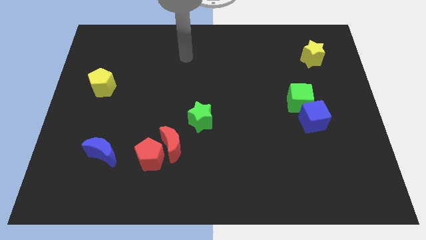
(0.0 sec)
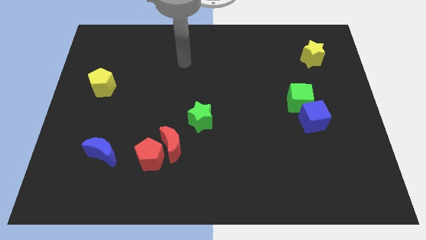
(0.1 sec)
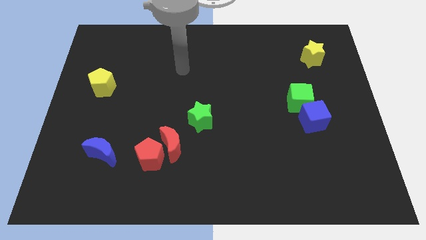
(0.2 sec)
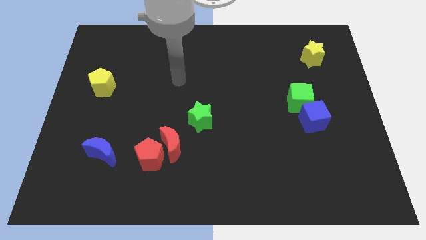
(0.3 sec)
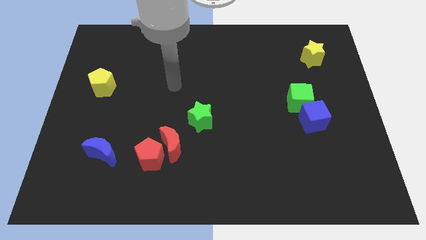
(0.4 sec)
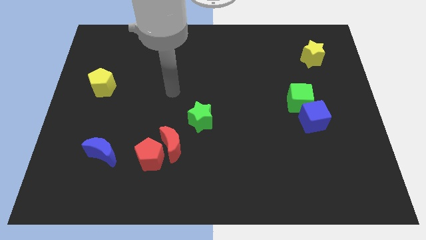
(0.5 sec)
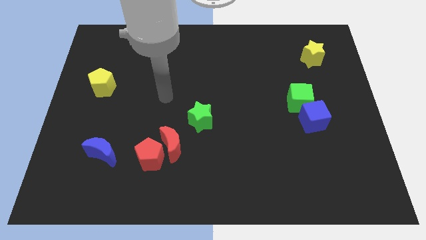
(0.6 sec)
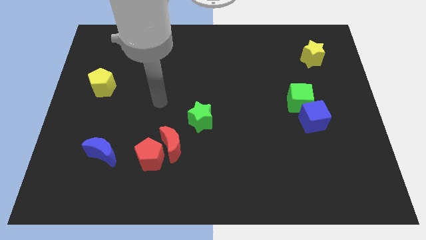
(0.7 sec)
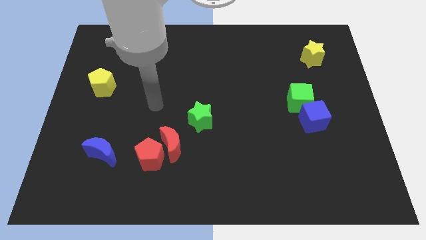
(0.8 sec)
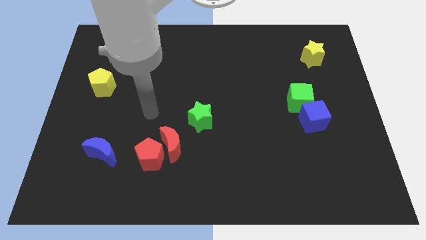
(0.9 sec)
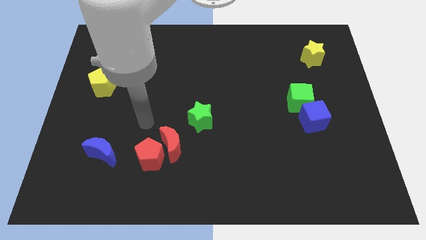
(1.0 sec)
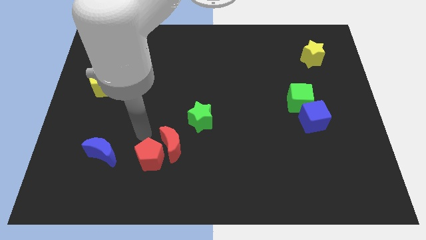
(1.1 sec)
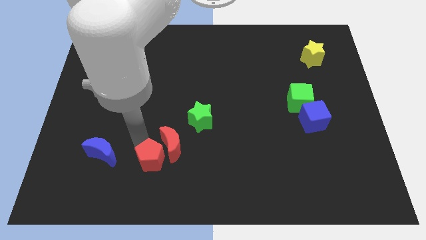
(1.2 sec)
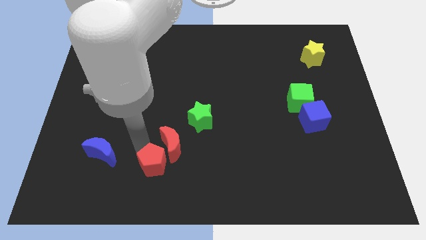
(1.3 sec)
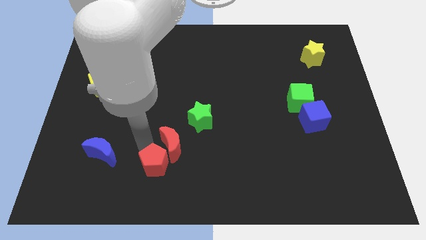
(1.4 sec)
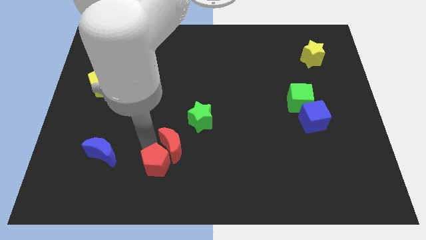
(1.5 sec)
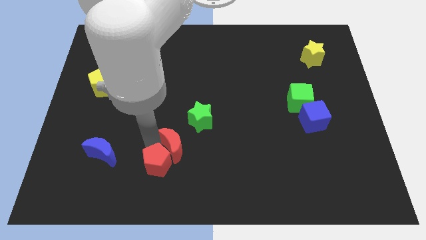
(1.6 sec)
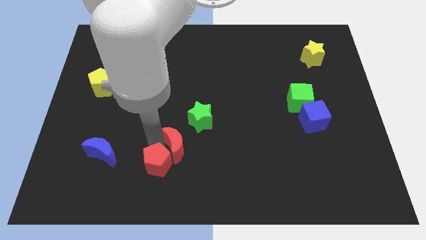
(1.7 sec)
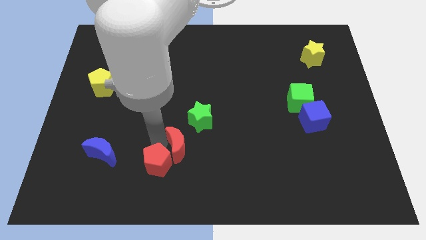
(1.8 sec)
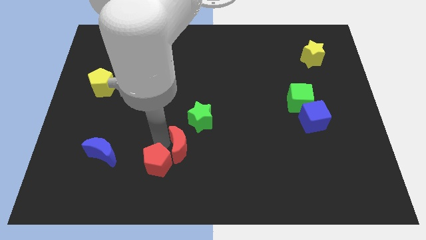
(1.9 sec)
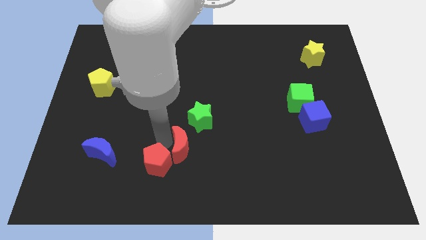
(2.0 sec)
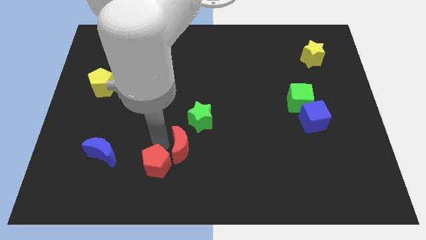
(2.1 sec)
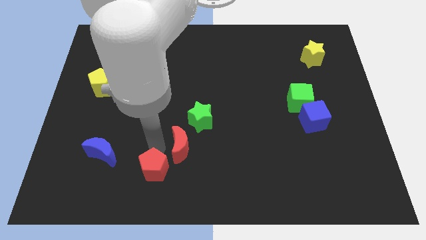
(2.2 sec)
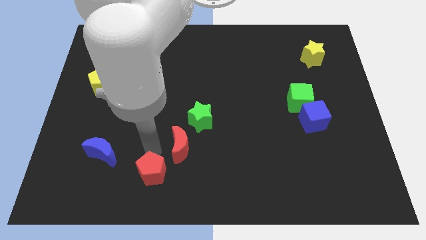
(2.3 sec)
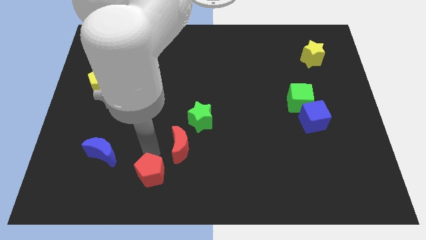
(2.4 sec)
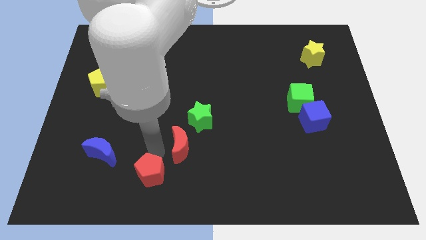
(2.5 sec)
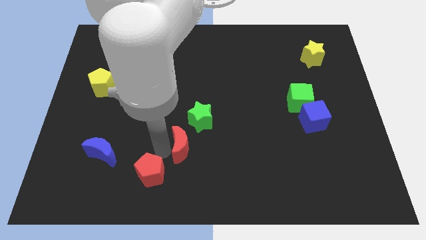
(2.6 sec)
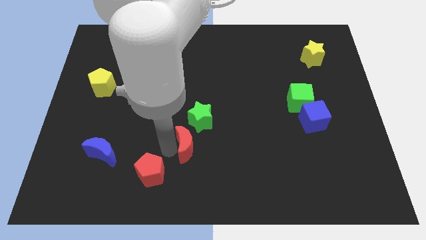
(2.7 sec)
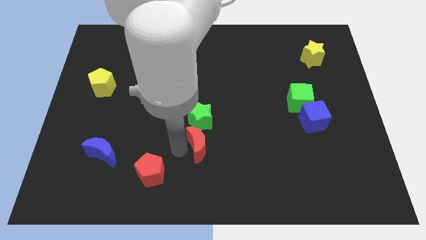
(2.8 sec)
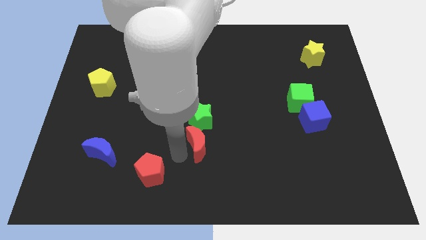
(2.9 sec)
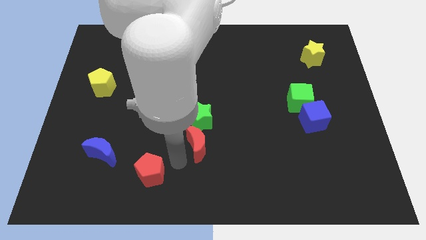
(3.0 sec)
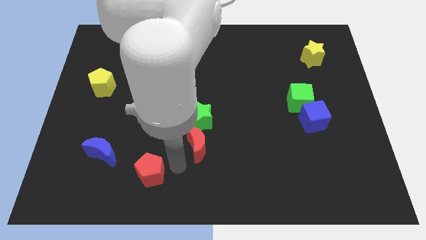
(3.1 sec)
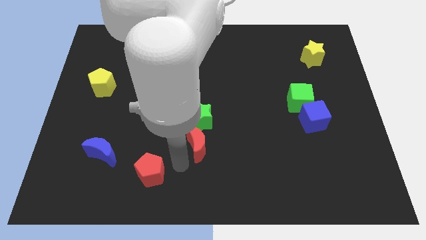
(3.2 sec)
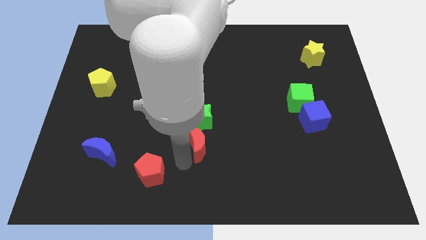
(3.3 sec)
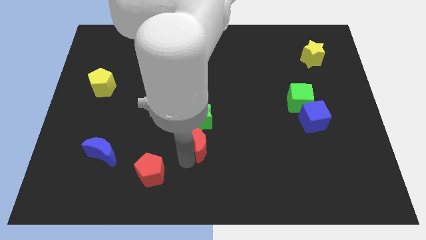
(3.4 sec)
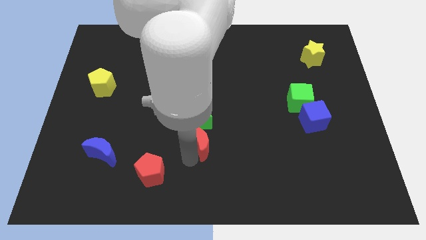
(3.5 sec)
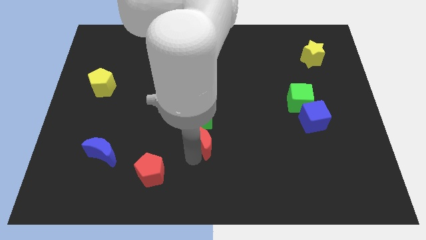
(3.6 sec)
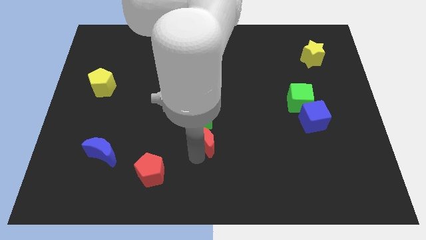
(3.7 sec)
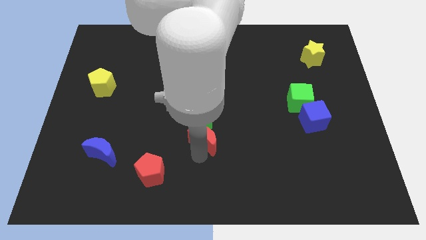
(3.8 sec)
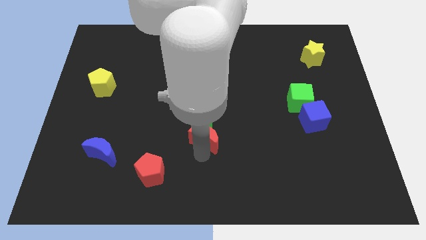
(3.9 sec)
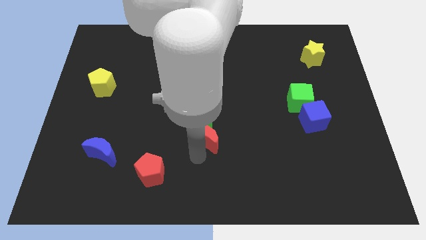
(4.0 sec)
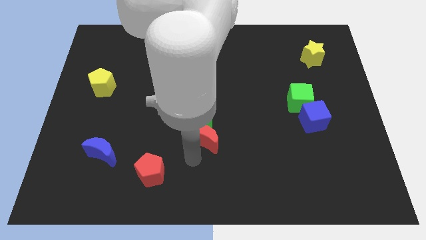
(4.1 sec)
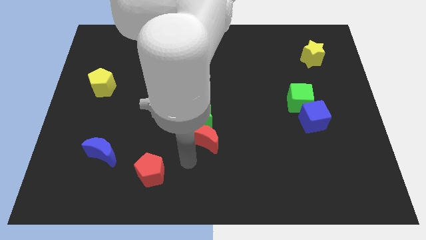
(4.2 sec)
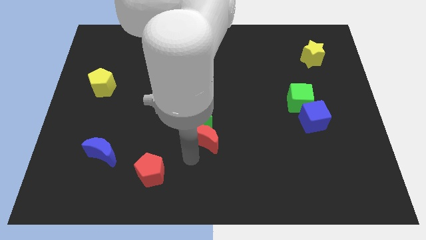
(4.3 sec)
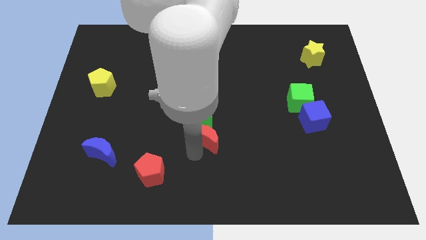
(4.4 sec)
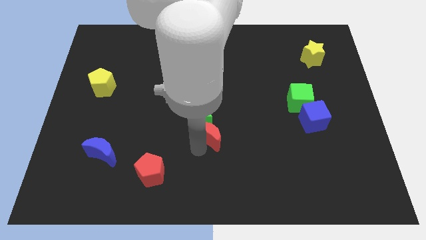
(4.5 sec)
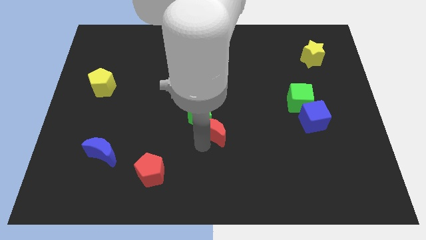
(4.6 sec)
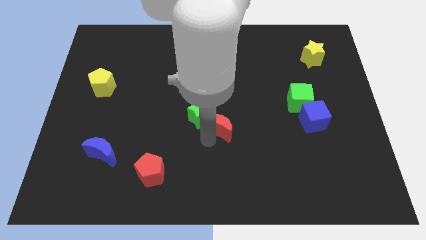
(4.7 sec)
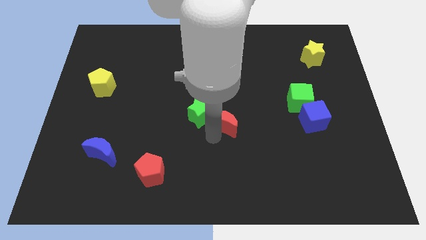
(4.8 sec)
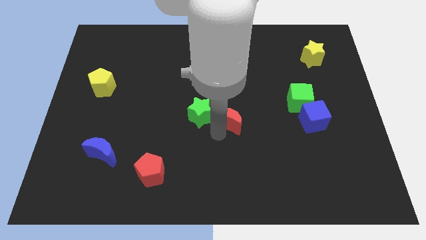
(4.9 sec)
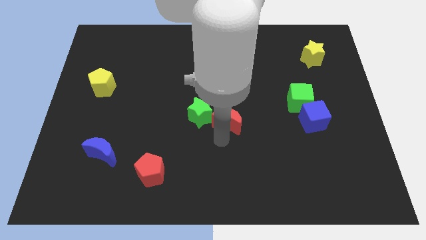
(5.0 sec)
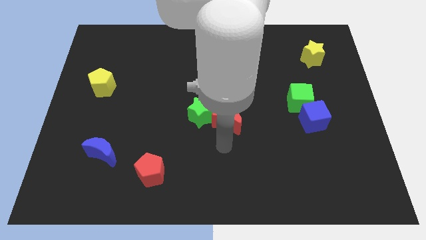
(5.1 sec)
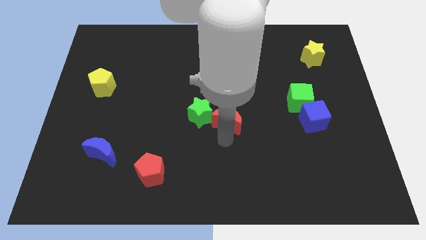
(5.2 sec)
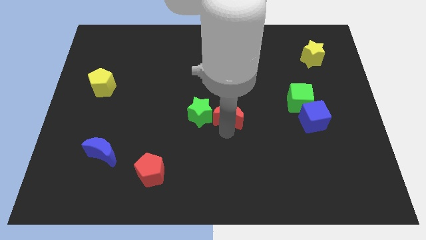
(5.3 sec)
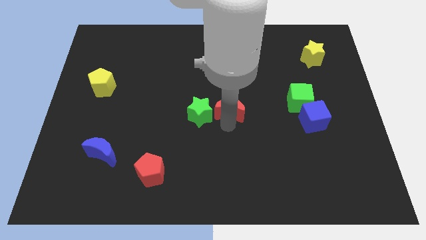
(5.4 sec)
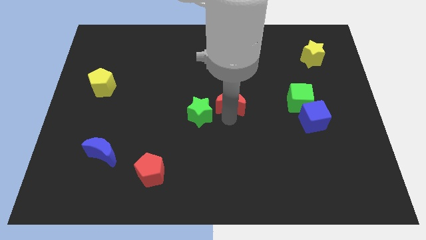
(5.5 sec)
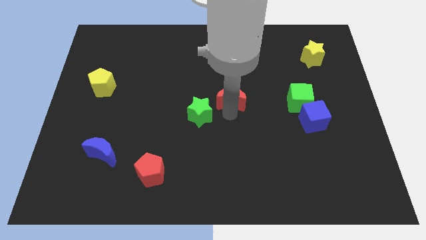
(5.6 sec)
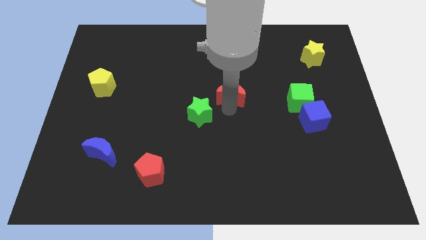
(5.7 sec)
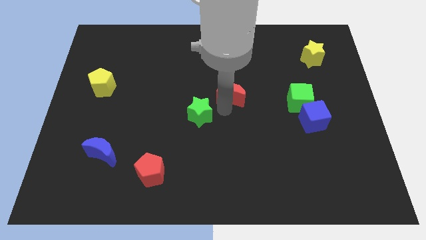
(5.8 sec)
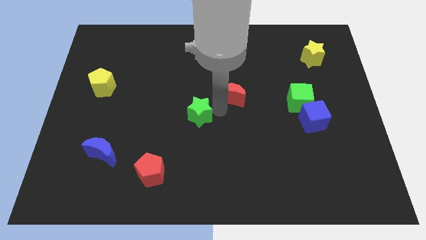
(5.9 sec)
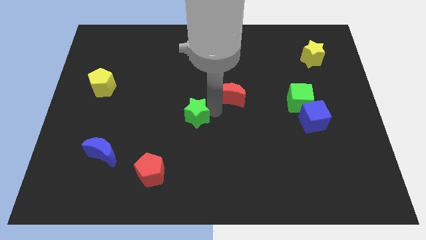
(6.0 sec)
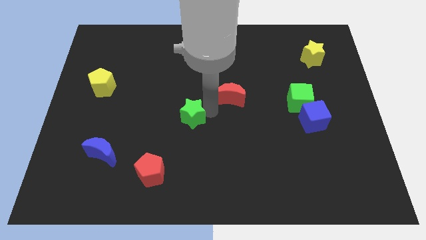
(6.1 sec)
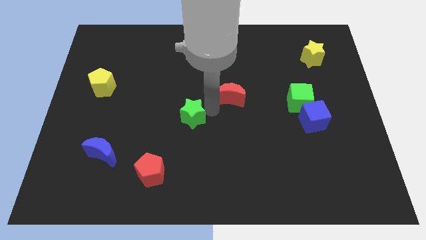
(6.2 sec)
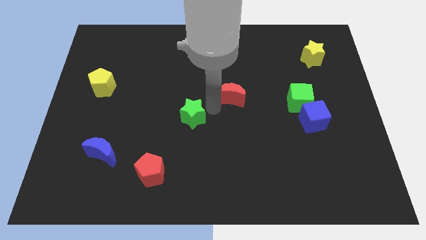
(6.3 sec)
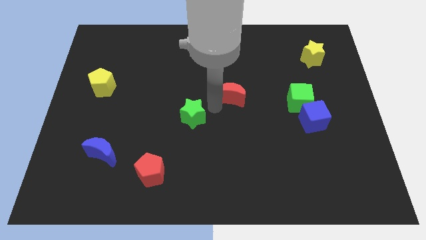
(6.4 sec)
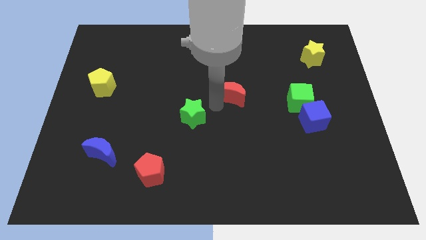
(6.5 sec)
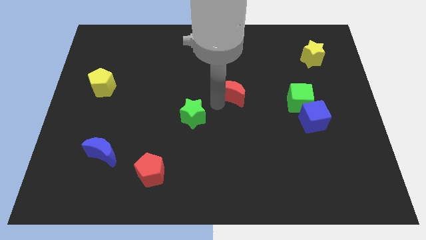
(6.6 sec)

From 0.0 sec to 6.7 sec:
push the red moon diagonally upwards and to the right

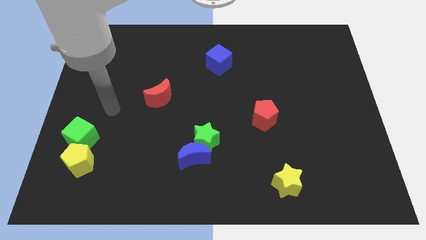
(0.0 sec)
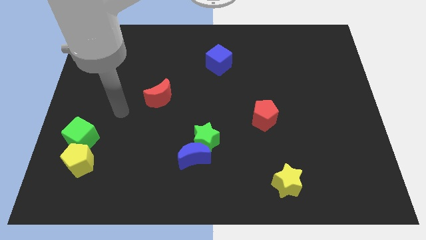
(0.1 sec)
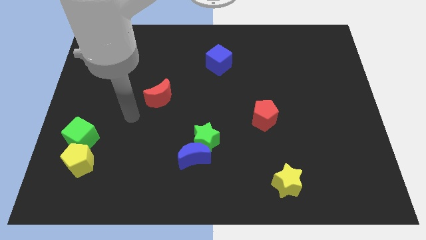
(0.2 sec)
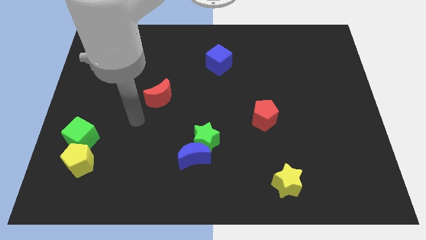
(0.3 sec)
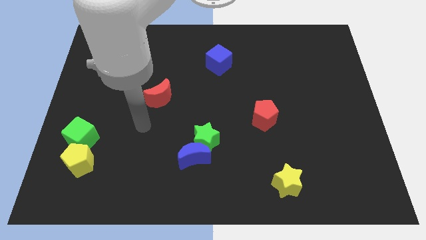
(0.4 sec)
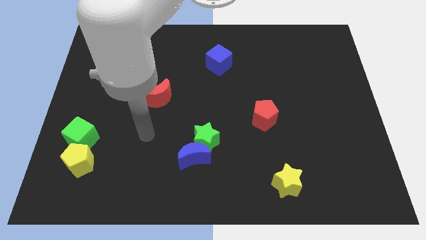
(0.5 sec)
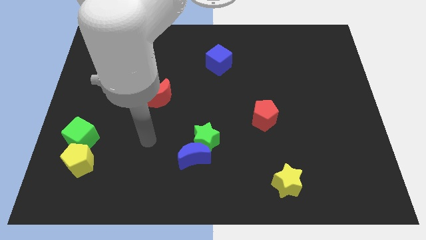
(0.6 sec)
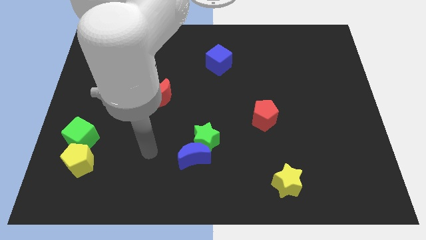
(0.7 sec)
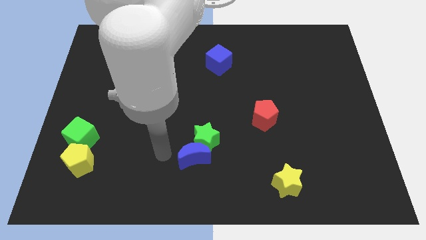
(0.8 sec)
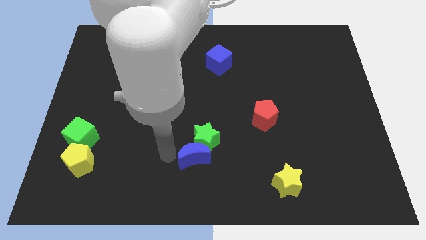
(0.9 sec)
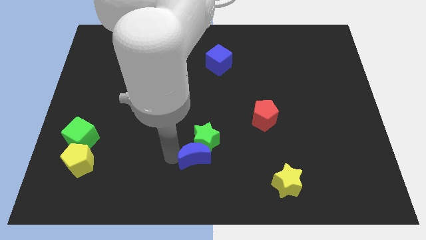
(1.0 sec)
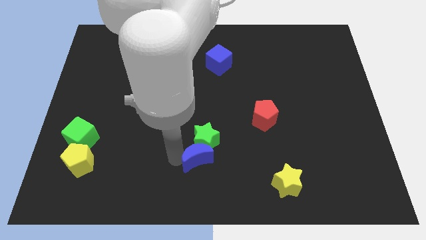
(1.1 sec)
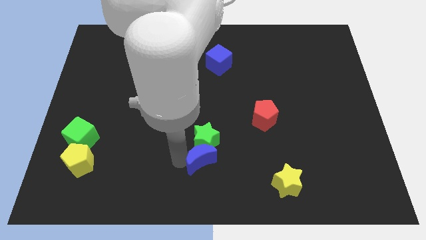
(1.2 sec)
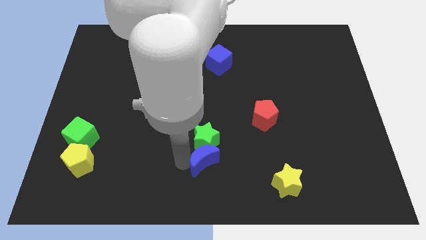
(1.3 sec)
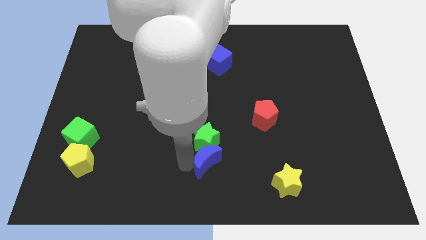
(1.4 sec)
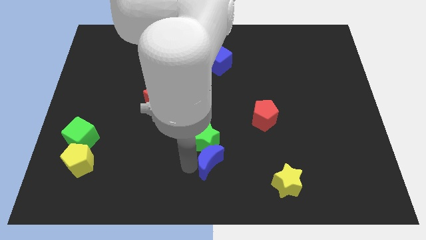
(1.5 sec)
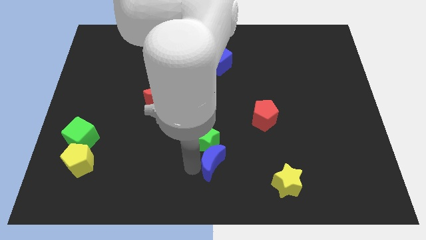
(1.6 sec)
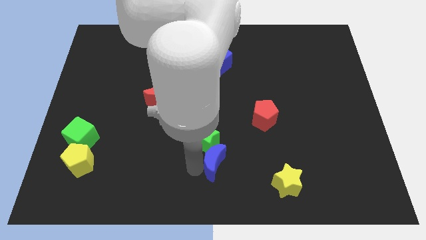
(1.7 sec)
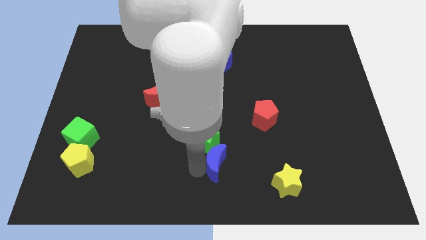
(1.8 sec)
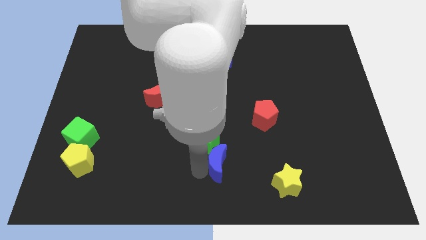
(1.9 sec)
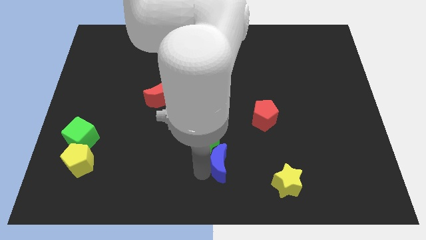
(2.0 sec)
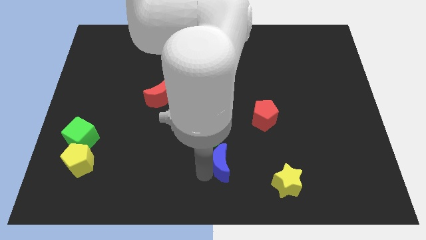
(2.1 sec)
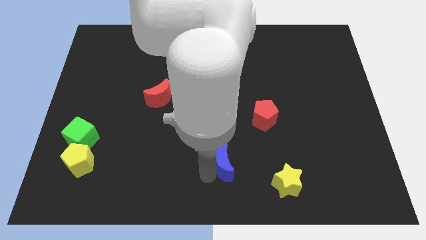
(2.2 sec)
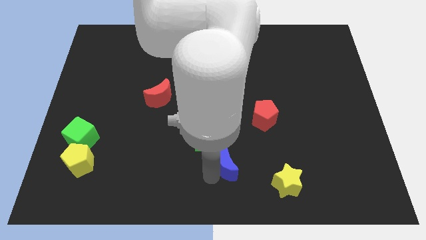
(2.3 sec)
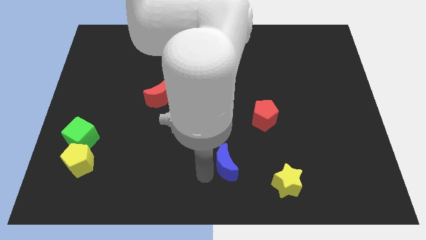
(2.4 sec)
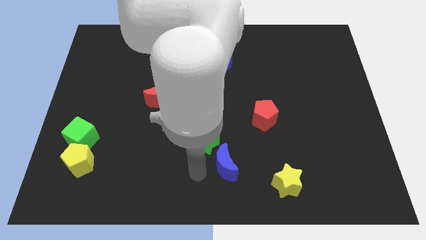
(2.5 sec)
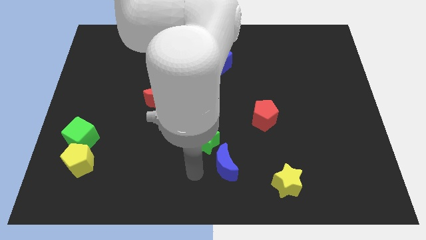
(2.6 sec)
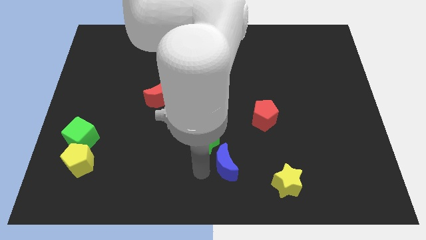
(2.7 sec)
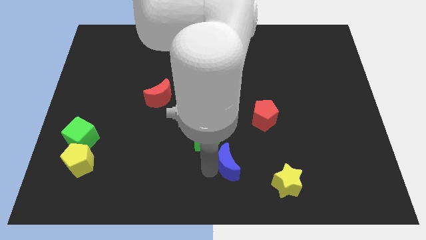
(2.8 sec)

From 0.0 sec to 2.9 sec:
slide the blue moon slightly right
